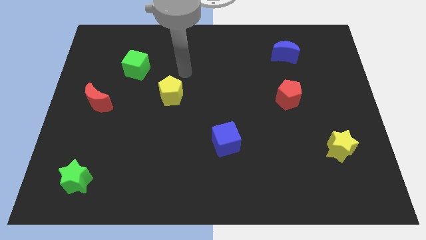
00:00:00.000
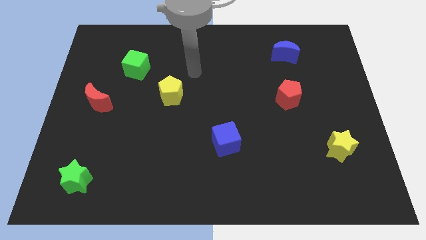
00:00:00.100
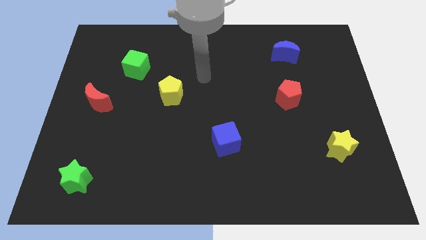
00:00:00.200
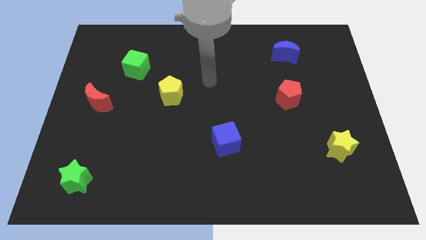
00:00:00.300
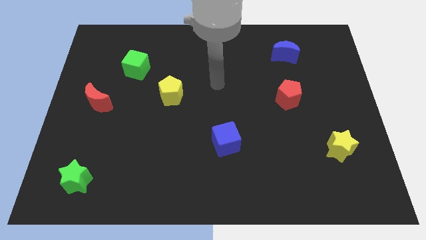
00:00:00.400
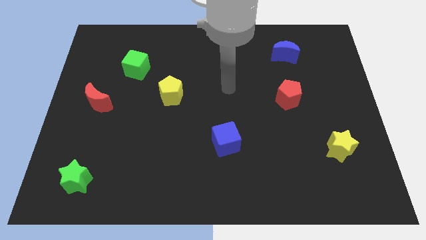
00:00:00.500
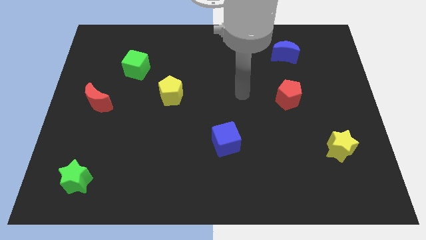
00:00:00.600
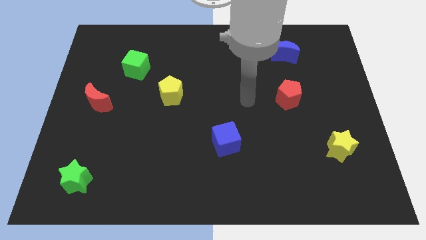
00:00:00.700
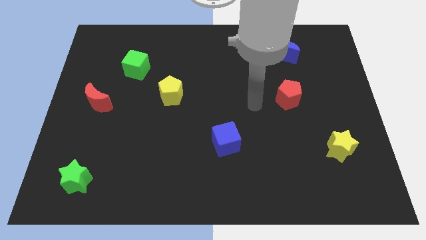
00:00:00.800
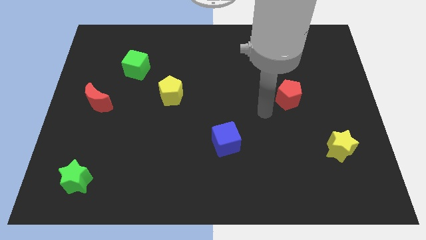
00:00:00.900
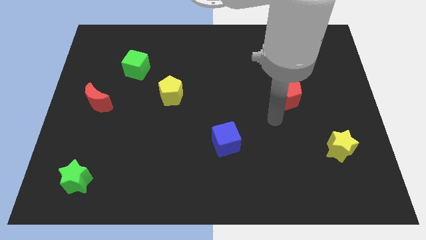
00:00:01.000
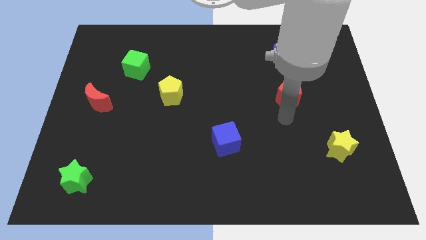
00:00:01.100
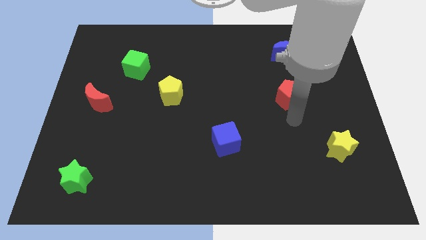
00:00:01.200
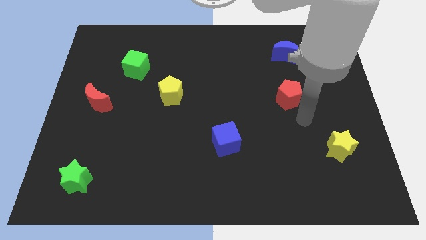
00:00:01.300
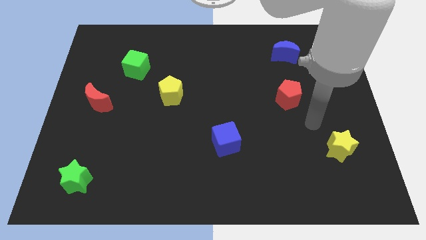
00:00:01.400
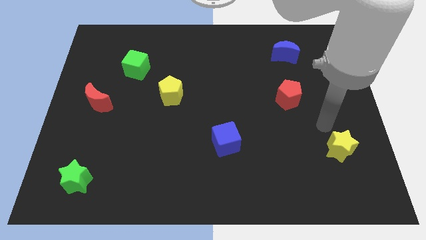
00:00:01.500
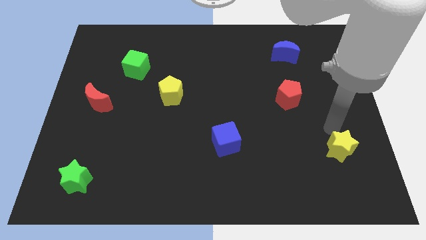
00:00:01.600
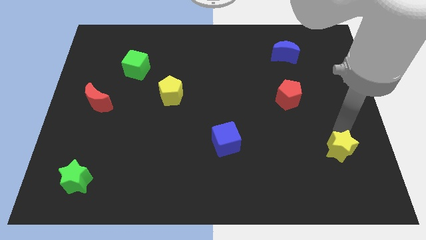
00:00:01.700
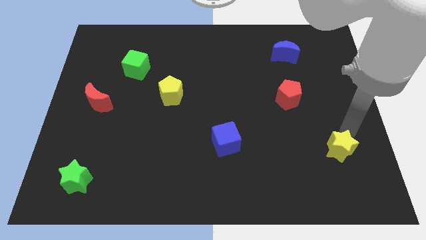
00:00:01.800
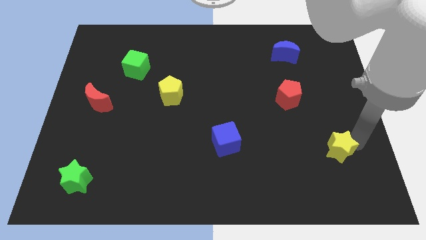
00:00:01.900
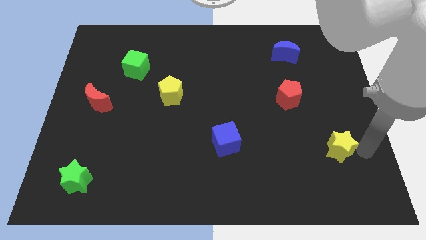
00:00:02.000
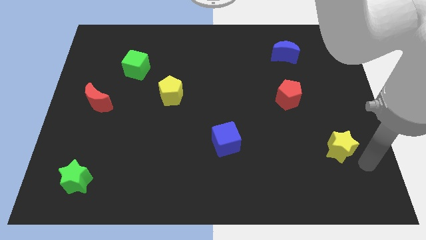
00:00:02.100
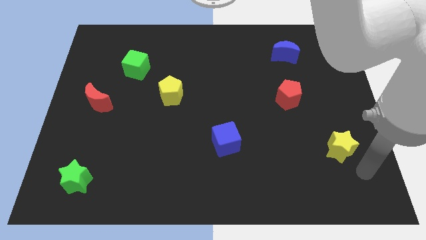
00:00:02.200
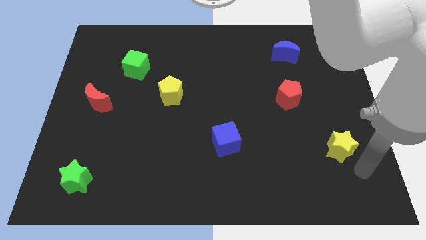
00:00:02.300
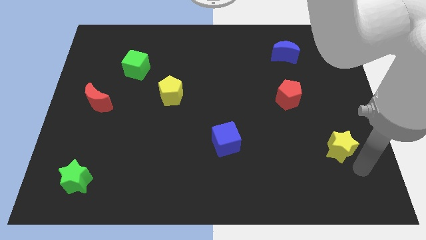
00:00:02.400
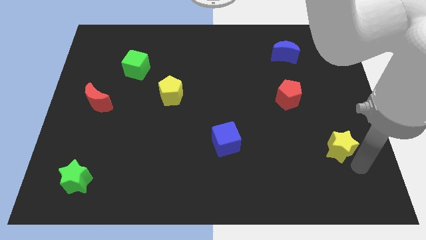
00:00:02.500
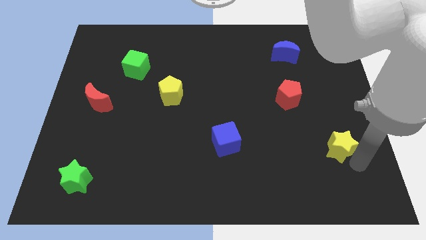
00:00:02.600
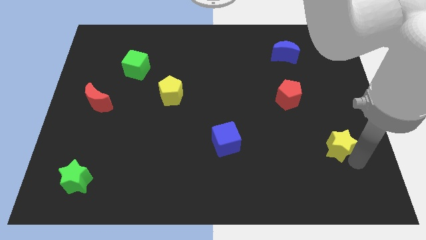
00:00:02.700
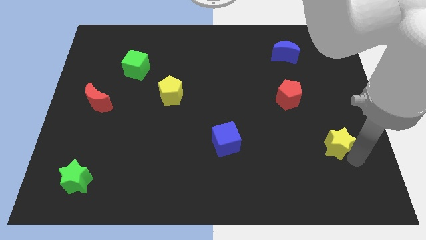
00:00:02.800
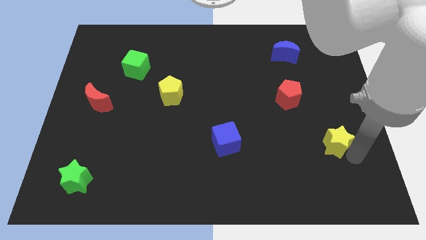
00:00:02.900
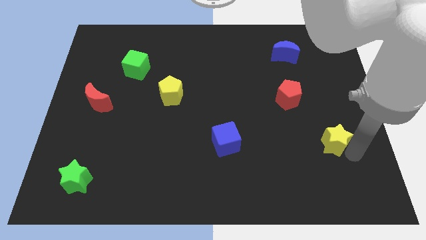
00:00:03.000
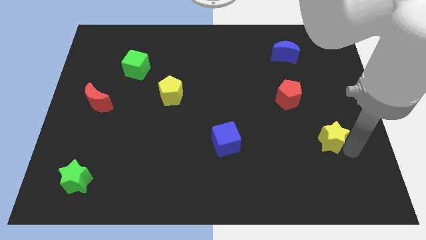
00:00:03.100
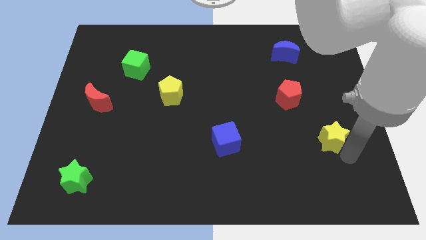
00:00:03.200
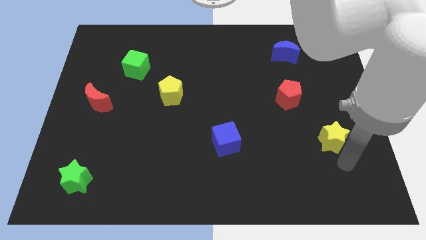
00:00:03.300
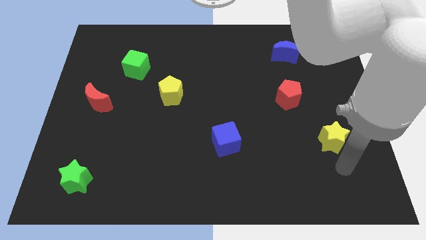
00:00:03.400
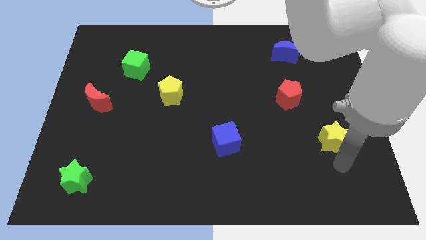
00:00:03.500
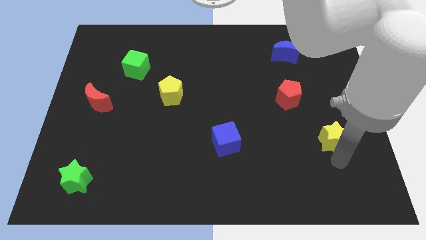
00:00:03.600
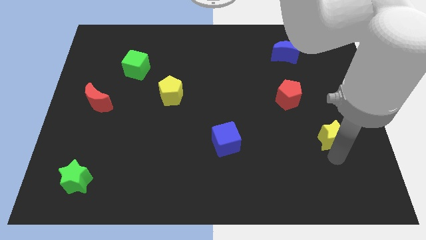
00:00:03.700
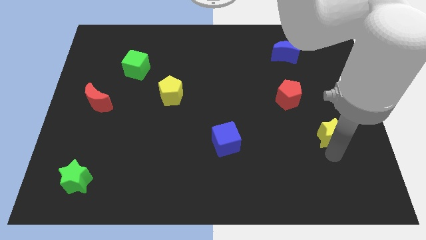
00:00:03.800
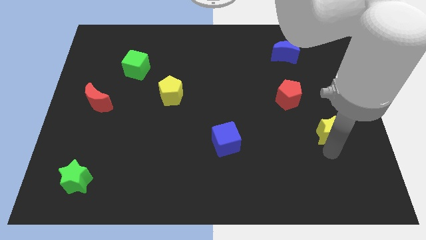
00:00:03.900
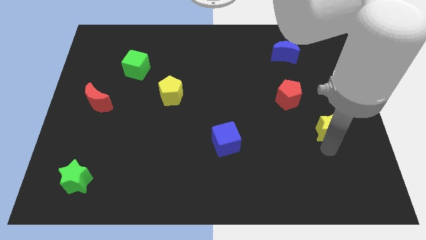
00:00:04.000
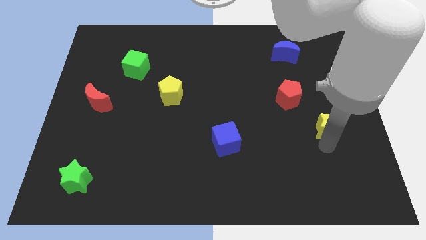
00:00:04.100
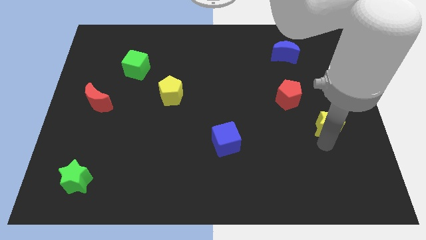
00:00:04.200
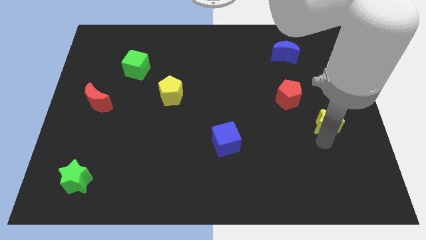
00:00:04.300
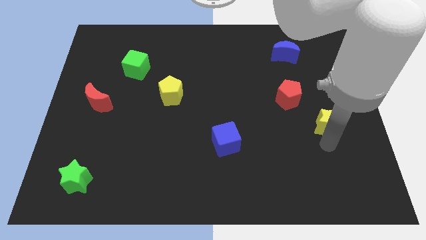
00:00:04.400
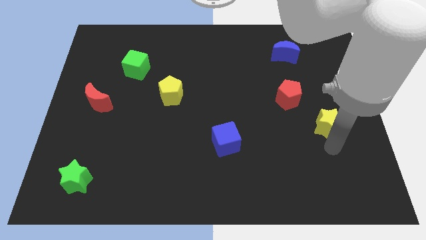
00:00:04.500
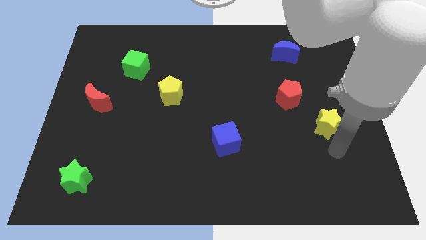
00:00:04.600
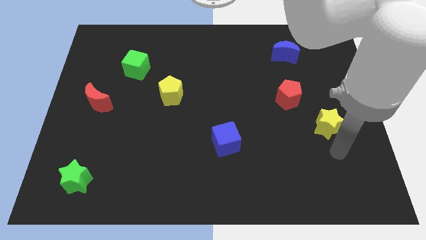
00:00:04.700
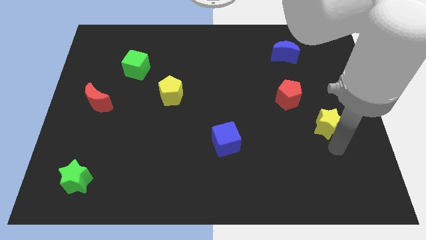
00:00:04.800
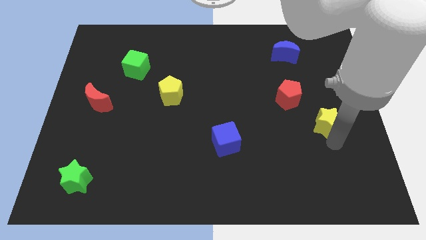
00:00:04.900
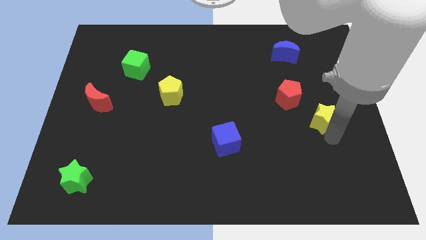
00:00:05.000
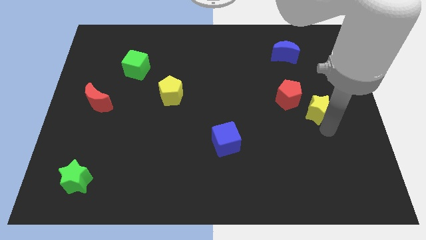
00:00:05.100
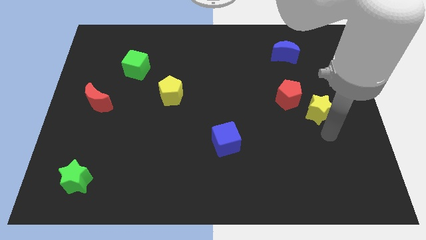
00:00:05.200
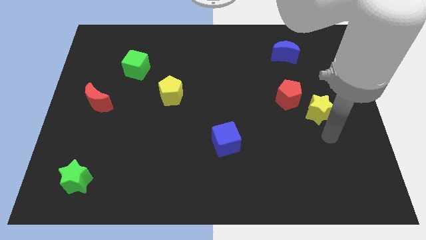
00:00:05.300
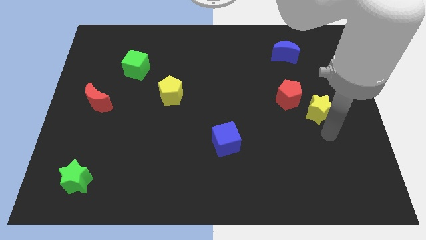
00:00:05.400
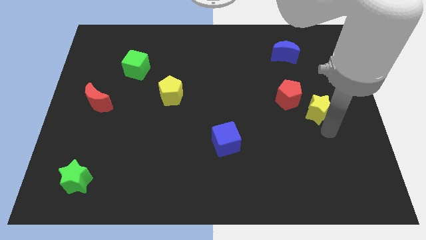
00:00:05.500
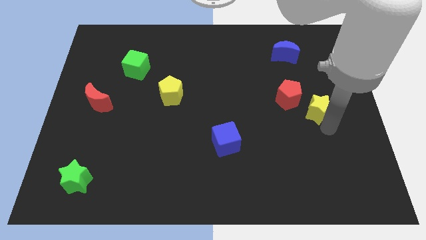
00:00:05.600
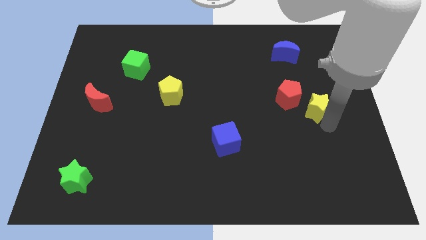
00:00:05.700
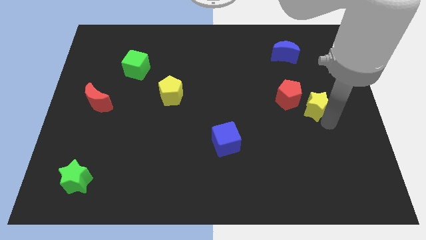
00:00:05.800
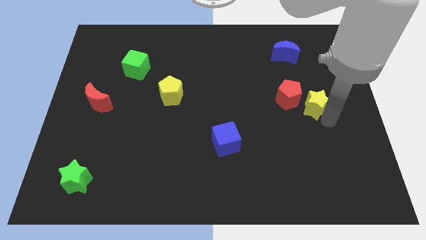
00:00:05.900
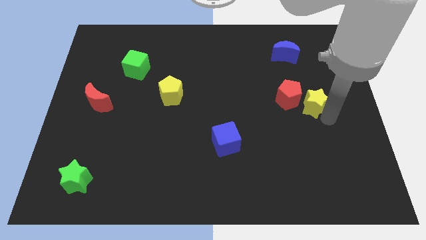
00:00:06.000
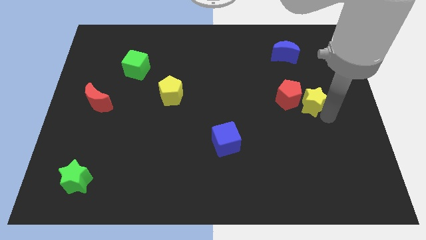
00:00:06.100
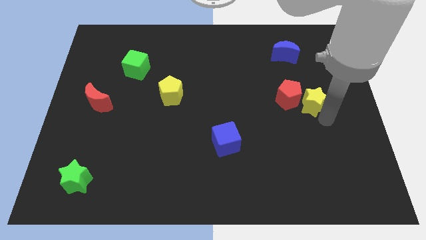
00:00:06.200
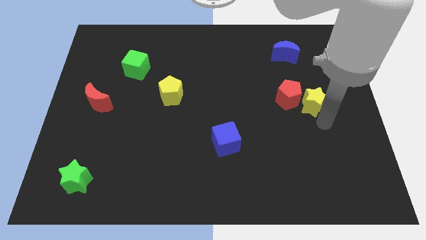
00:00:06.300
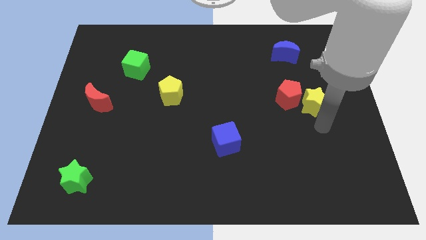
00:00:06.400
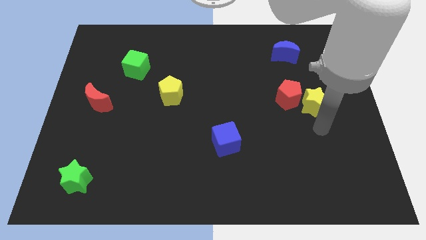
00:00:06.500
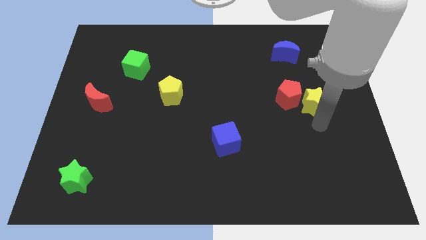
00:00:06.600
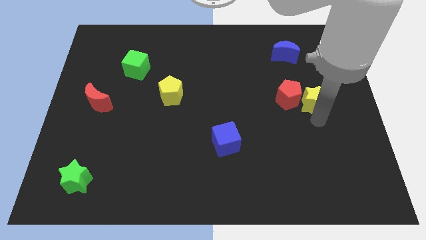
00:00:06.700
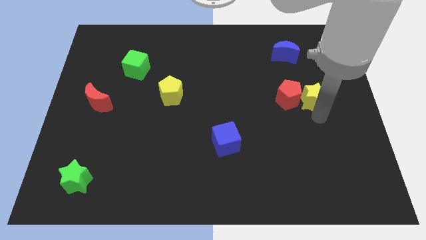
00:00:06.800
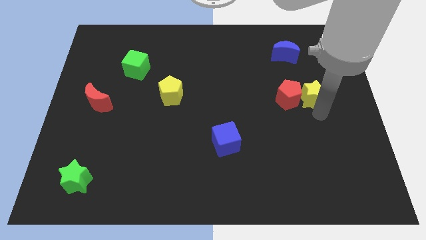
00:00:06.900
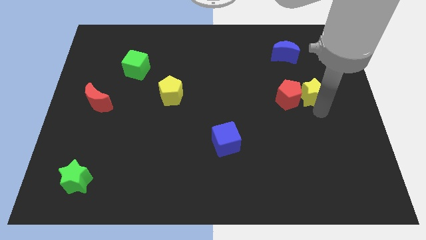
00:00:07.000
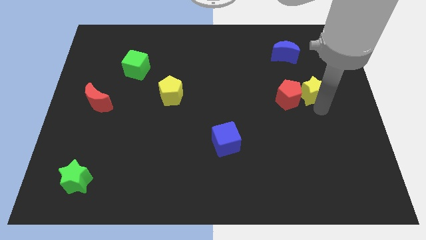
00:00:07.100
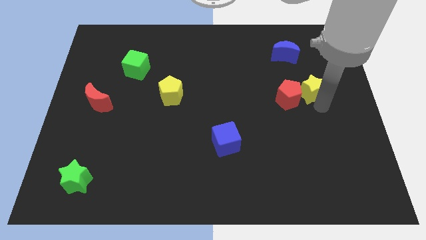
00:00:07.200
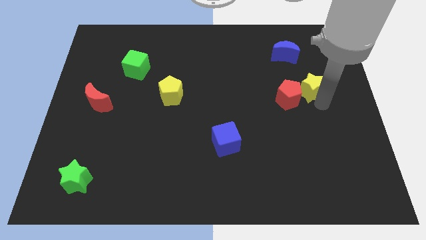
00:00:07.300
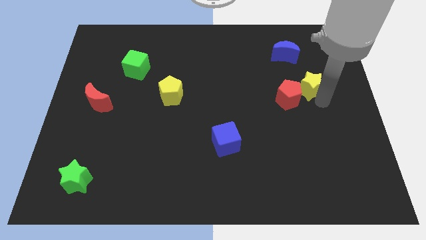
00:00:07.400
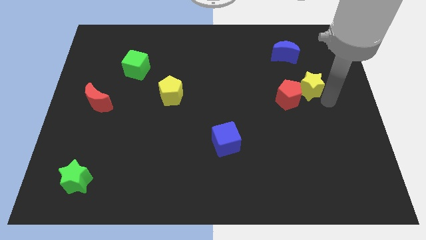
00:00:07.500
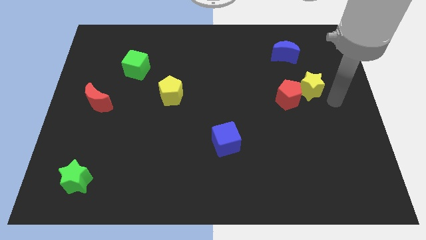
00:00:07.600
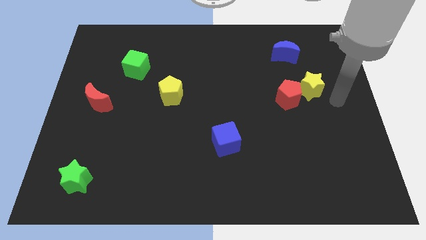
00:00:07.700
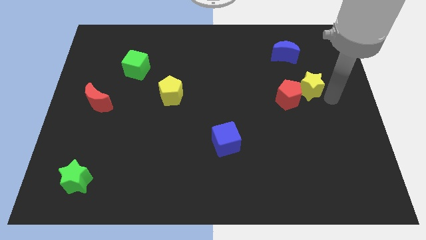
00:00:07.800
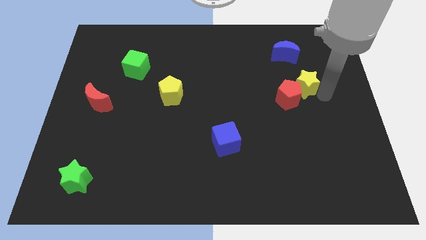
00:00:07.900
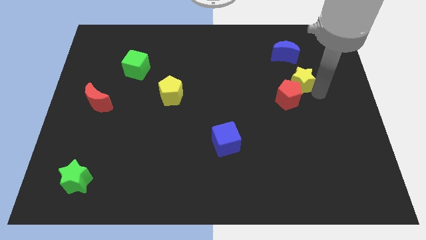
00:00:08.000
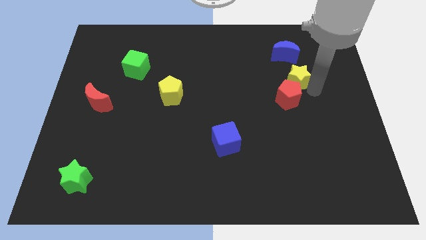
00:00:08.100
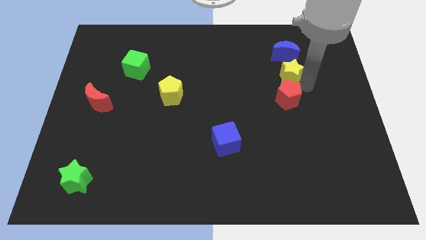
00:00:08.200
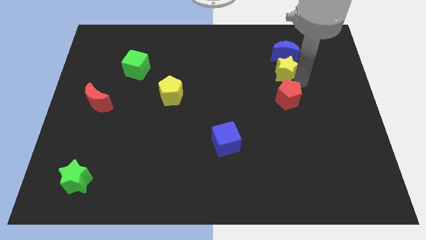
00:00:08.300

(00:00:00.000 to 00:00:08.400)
move the yellow star to the bottom left side of the blue moon
